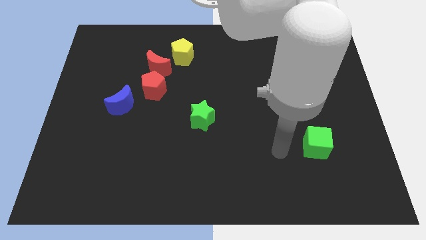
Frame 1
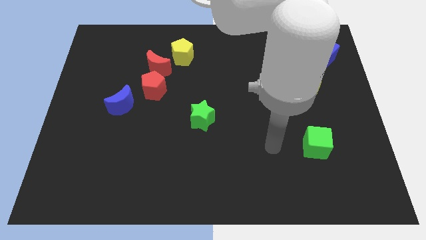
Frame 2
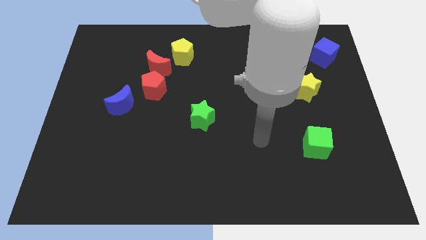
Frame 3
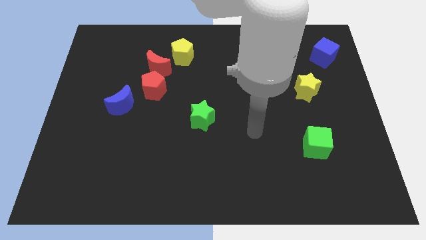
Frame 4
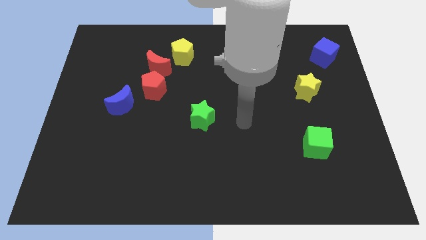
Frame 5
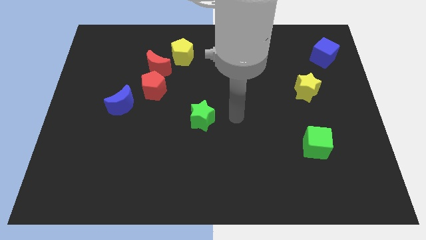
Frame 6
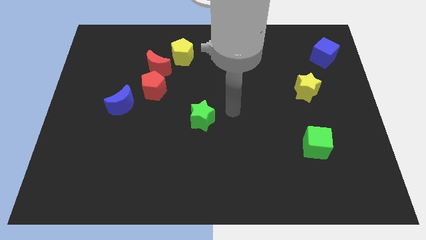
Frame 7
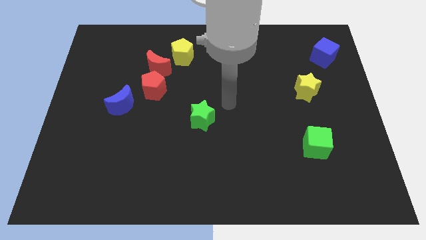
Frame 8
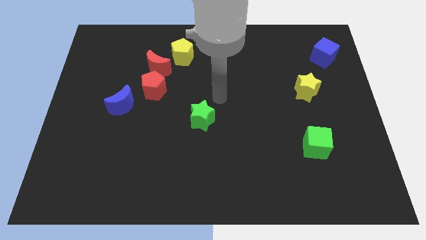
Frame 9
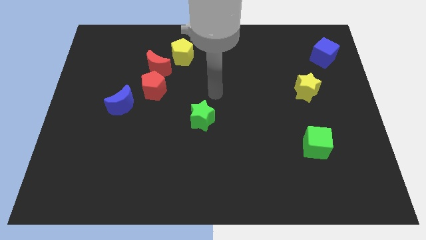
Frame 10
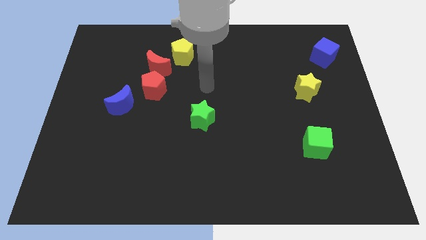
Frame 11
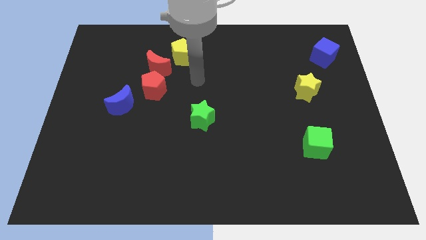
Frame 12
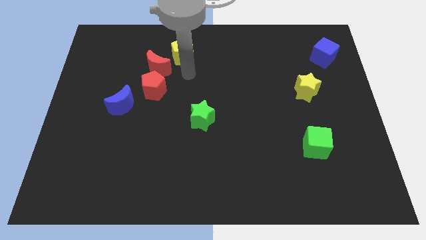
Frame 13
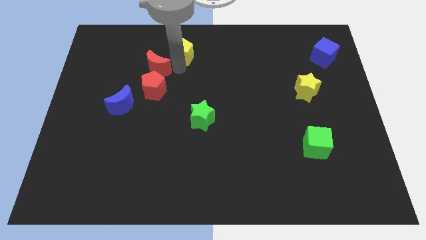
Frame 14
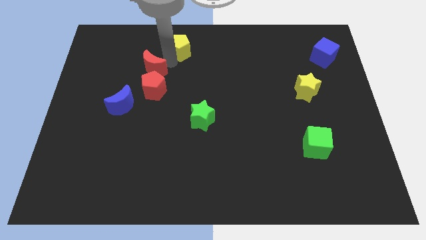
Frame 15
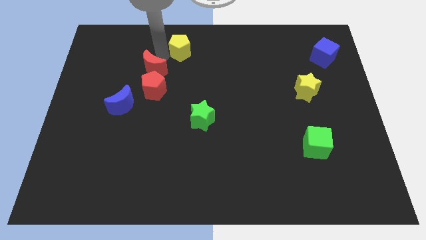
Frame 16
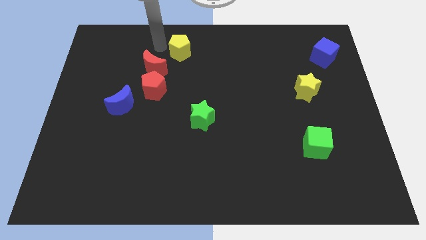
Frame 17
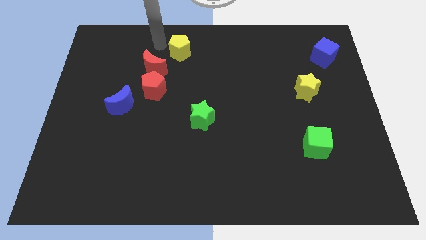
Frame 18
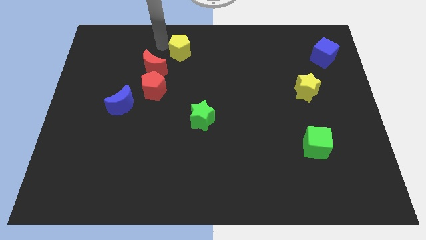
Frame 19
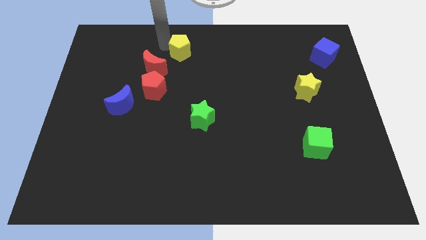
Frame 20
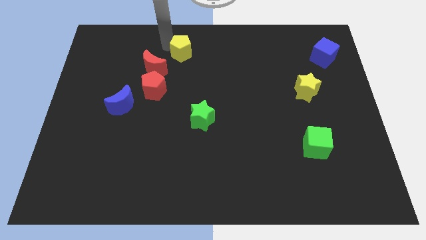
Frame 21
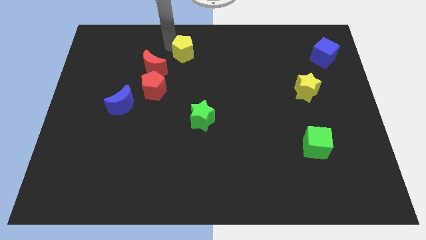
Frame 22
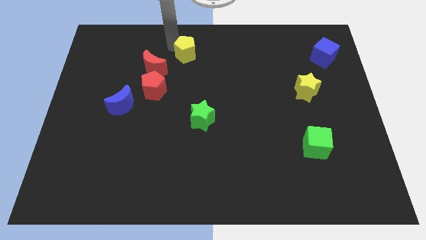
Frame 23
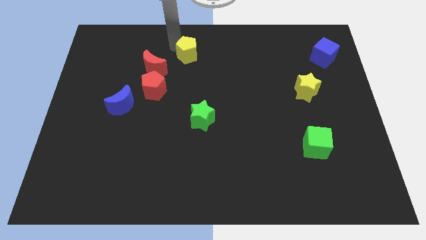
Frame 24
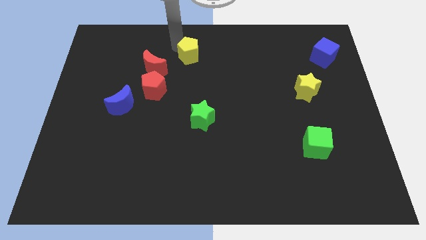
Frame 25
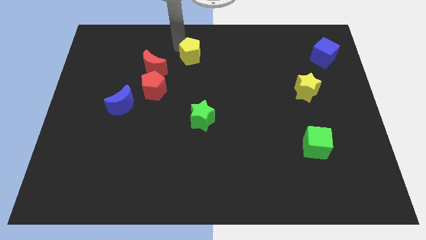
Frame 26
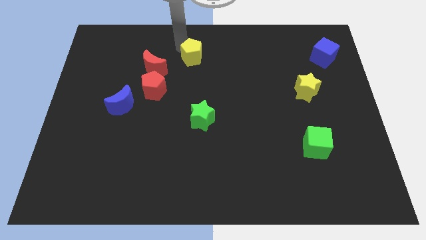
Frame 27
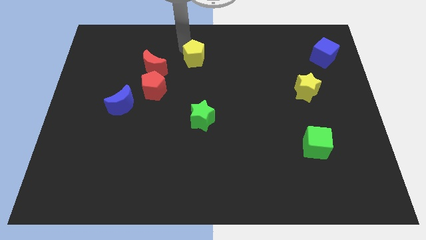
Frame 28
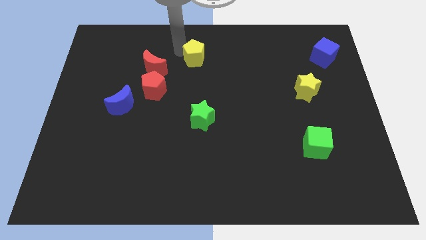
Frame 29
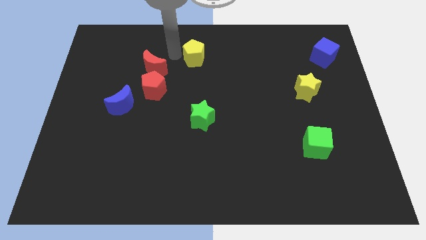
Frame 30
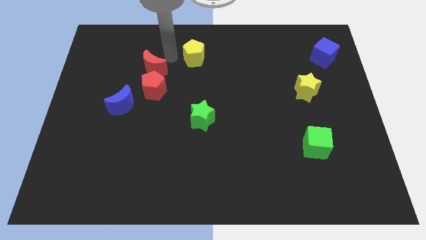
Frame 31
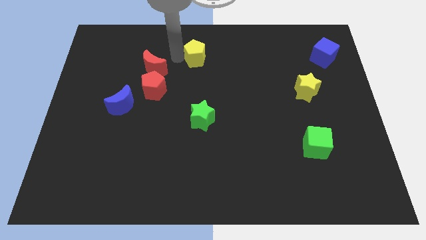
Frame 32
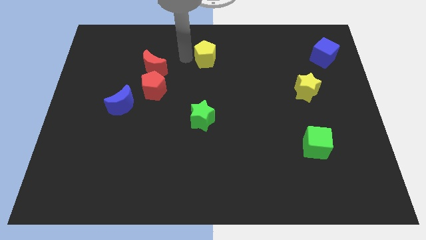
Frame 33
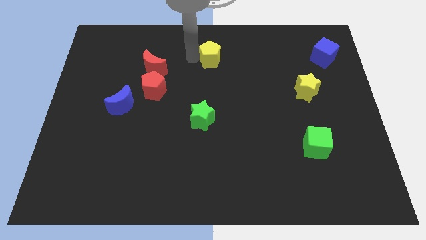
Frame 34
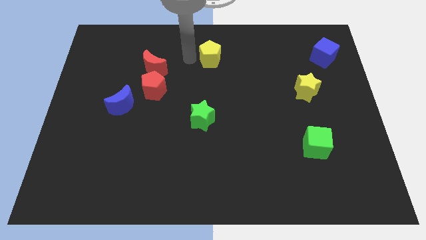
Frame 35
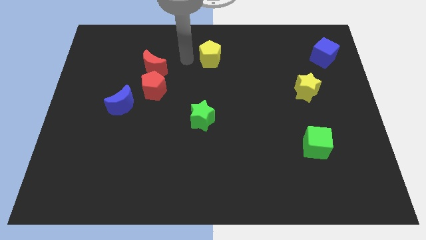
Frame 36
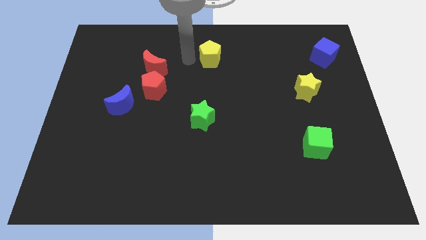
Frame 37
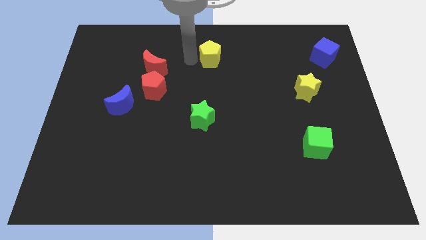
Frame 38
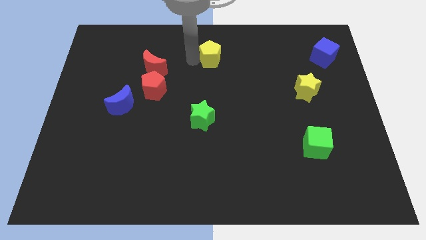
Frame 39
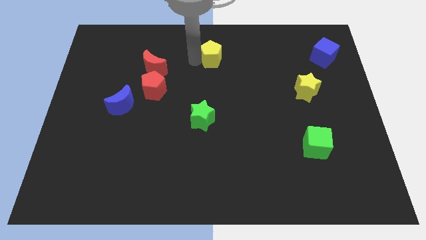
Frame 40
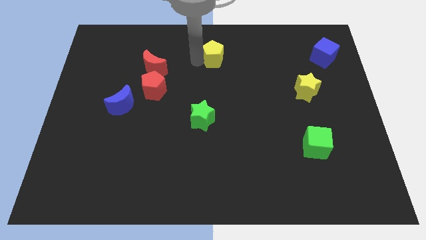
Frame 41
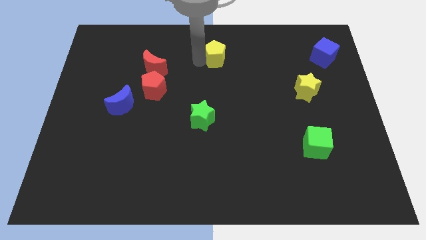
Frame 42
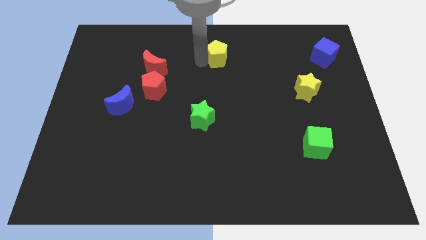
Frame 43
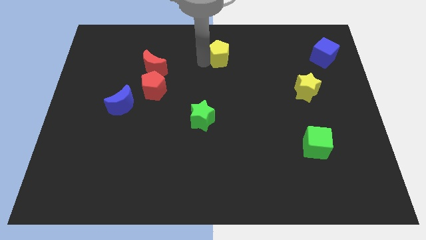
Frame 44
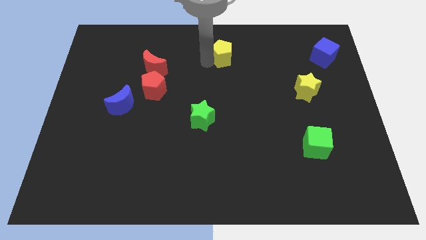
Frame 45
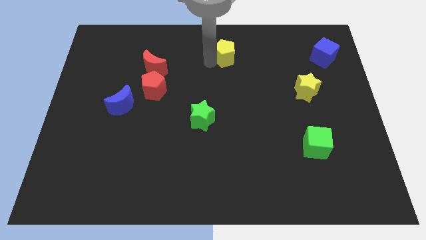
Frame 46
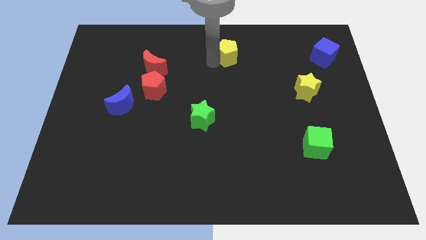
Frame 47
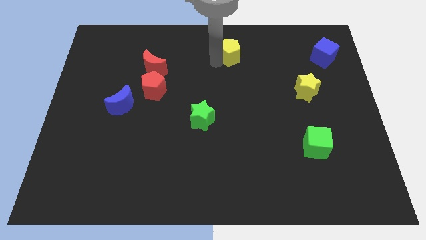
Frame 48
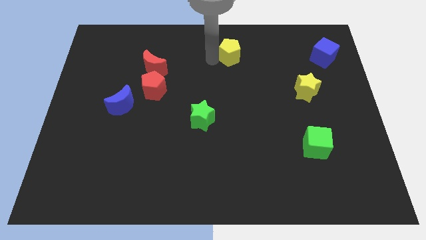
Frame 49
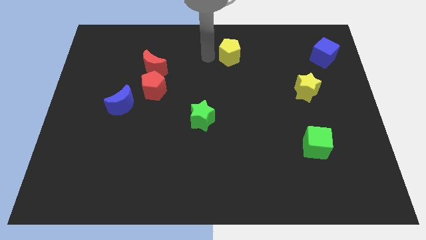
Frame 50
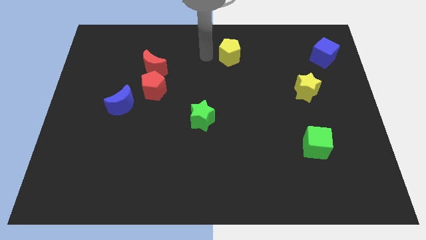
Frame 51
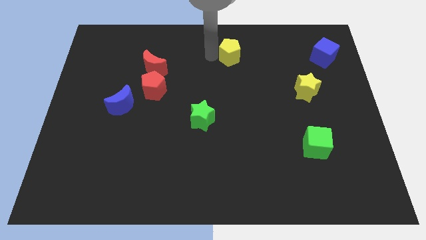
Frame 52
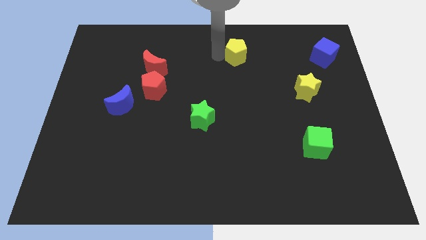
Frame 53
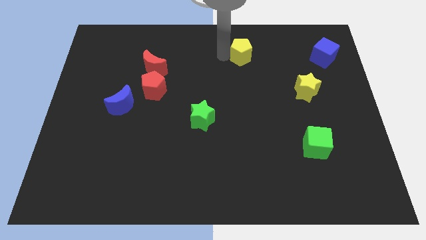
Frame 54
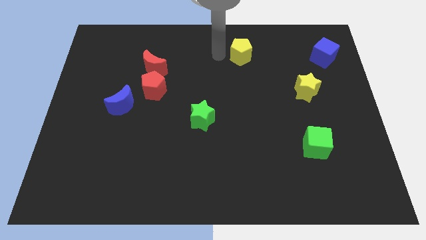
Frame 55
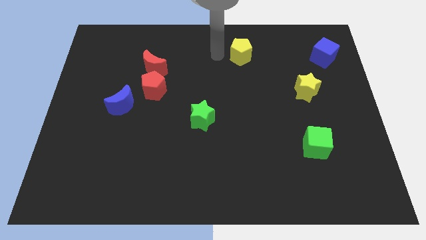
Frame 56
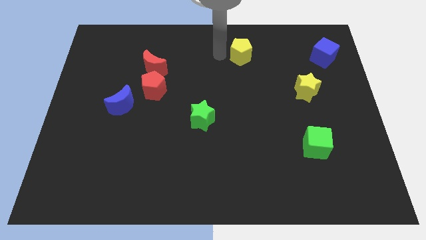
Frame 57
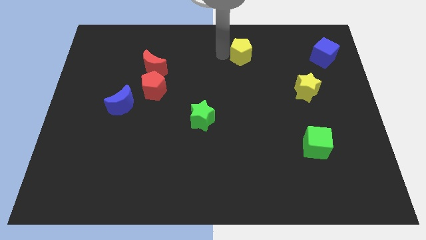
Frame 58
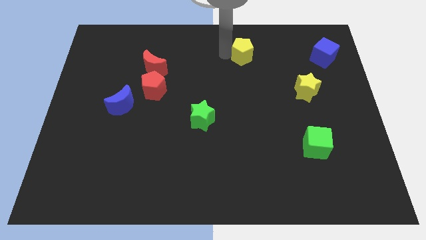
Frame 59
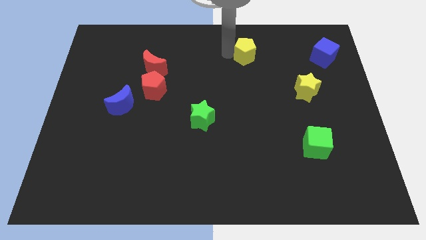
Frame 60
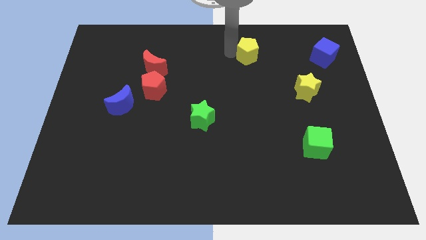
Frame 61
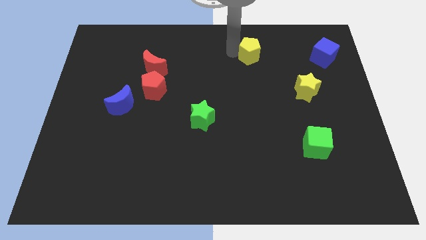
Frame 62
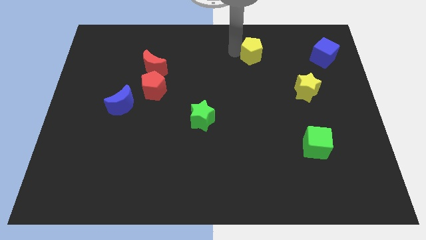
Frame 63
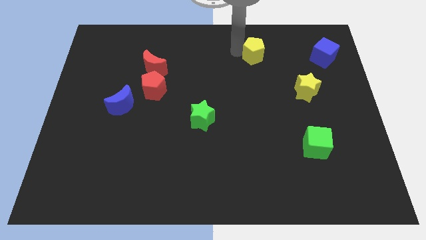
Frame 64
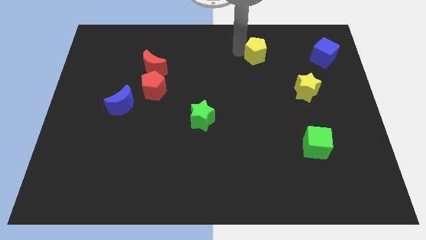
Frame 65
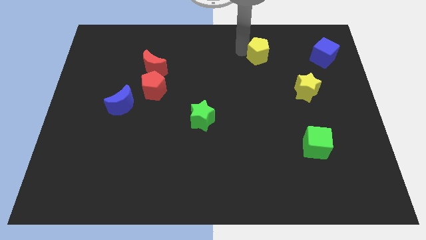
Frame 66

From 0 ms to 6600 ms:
slide the yellow pentagon to the right

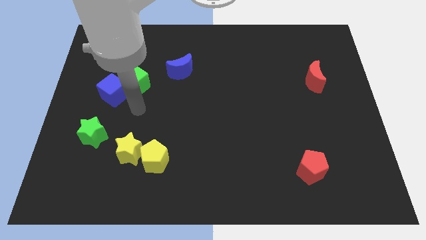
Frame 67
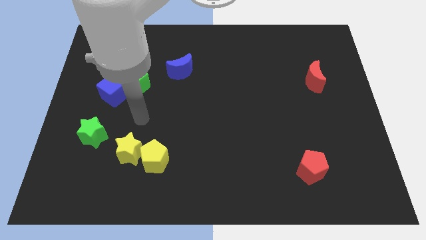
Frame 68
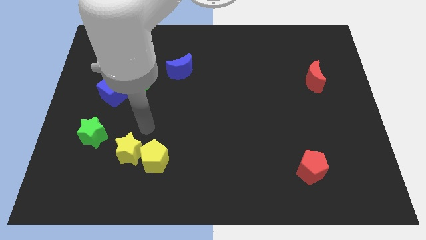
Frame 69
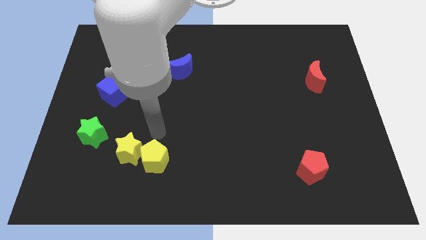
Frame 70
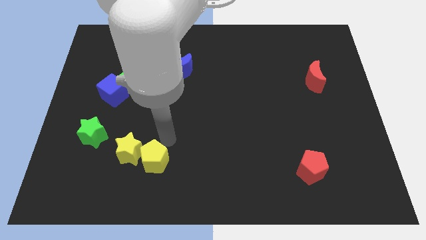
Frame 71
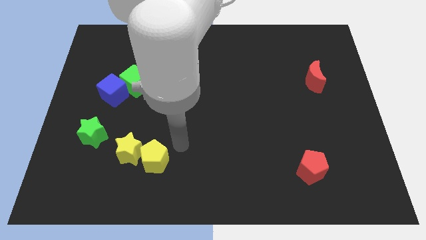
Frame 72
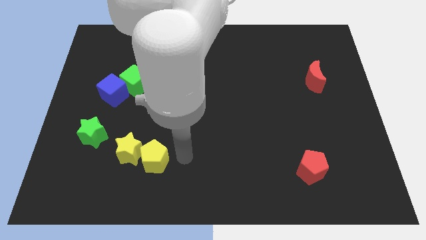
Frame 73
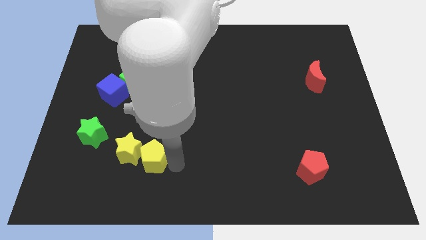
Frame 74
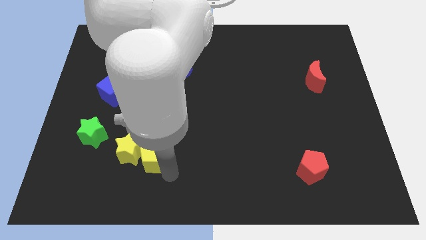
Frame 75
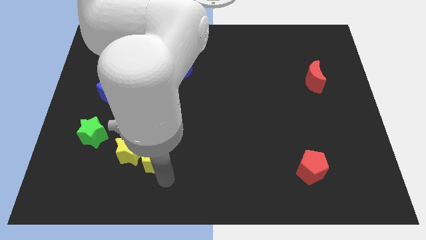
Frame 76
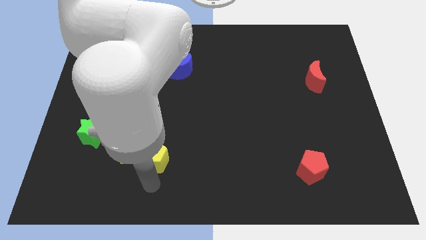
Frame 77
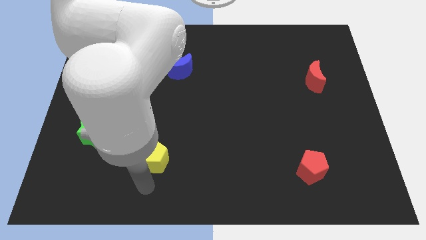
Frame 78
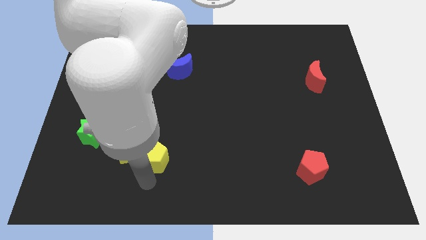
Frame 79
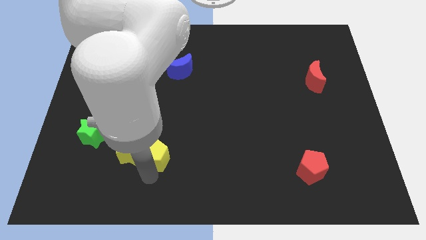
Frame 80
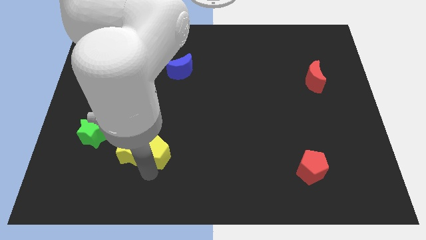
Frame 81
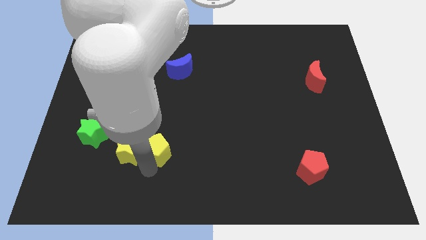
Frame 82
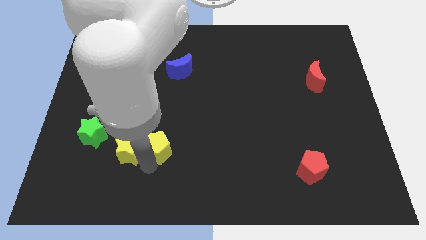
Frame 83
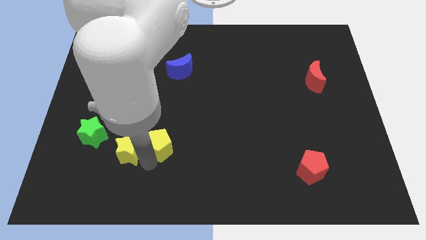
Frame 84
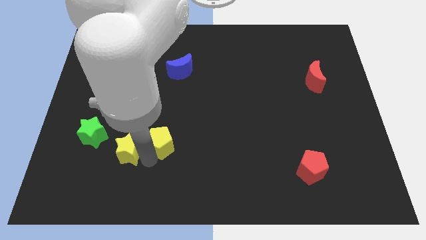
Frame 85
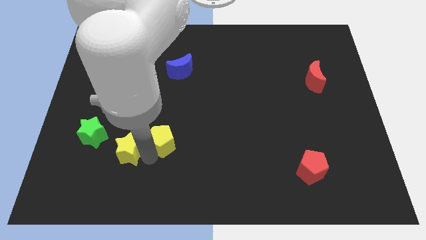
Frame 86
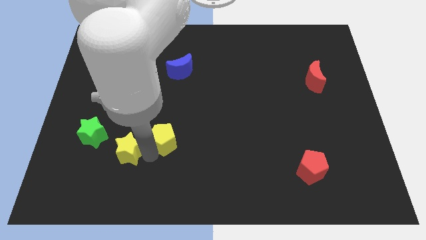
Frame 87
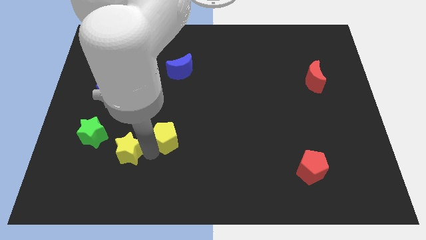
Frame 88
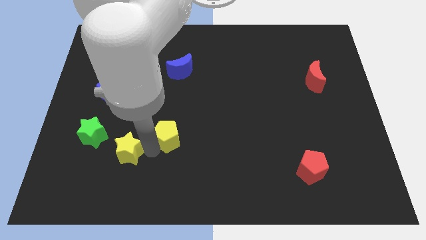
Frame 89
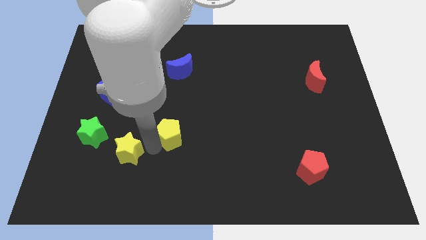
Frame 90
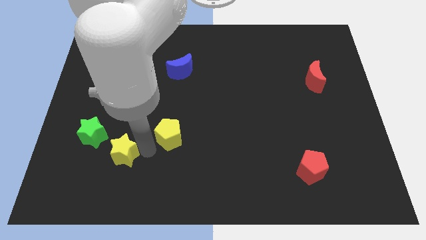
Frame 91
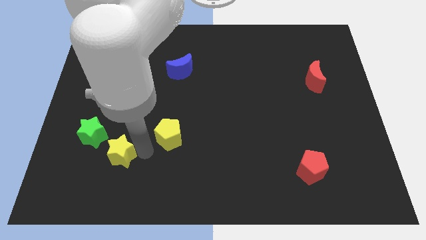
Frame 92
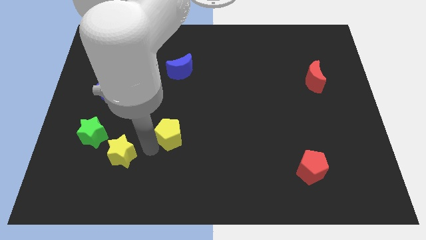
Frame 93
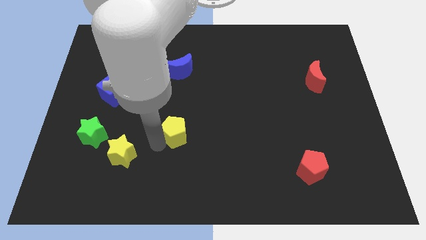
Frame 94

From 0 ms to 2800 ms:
slightly slide the yellow pentagon diagonally upwards and to the right
